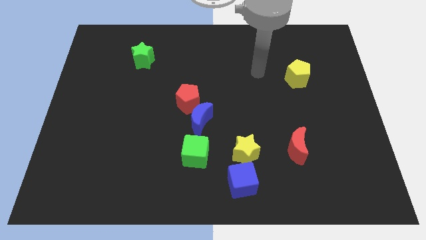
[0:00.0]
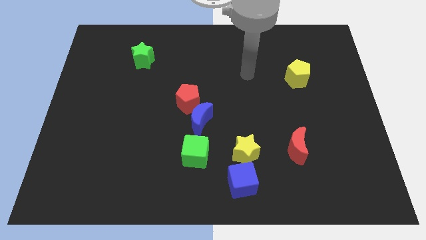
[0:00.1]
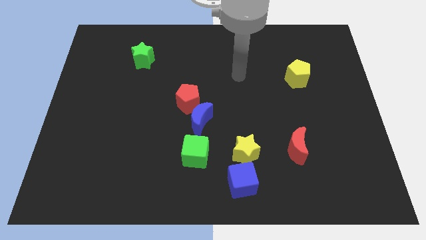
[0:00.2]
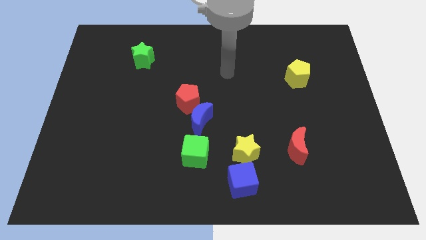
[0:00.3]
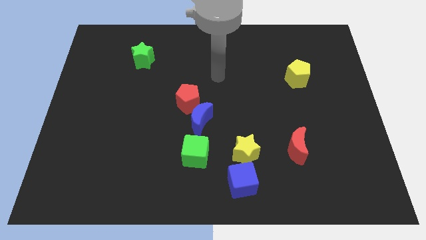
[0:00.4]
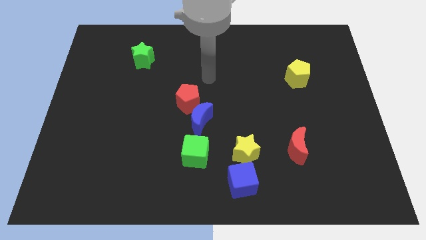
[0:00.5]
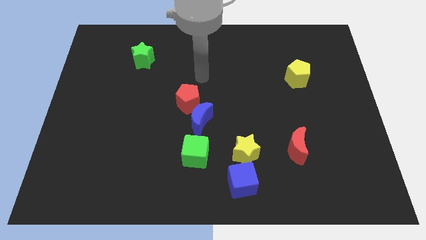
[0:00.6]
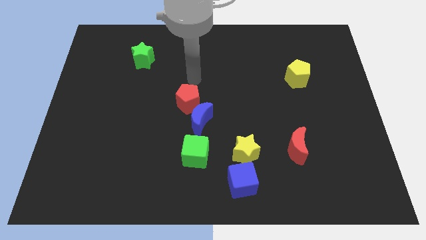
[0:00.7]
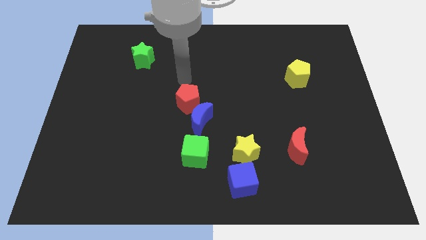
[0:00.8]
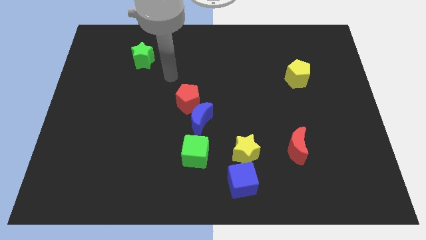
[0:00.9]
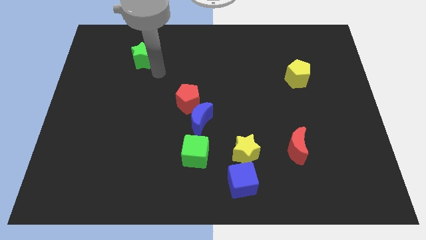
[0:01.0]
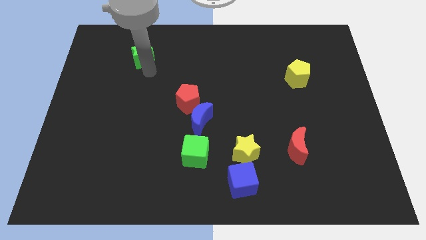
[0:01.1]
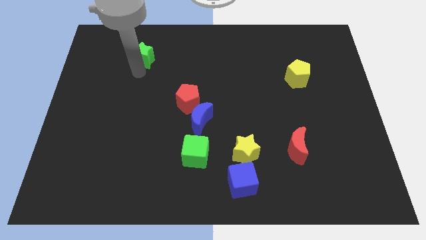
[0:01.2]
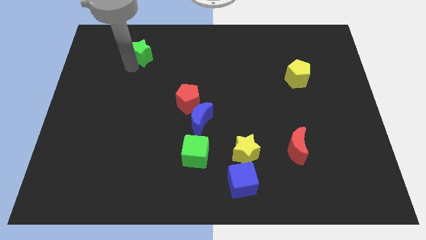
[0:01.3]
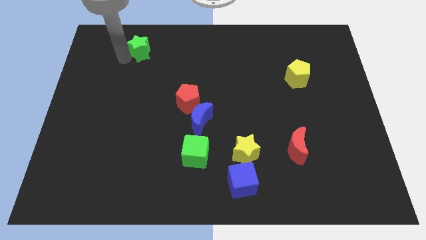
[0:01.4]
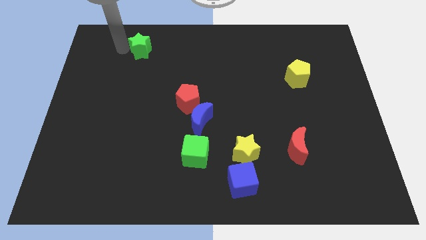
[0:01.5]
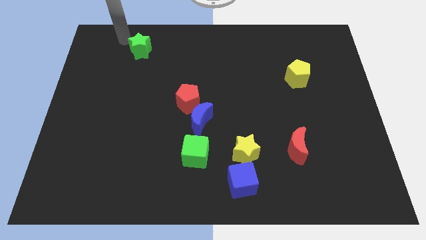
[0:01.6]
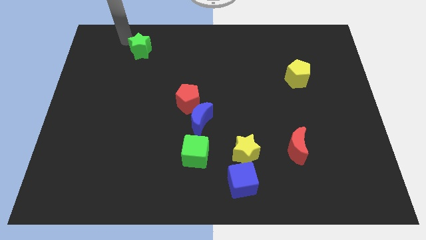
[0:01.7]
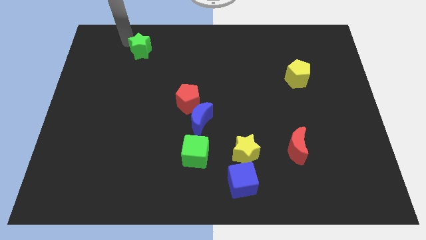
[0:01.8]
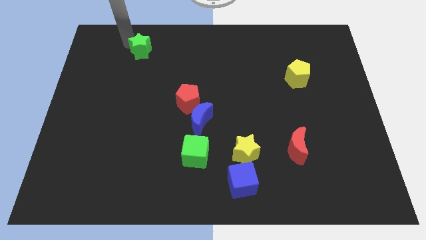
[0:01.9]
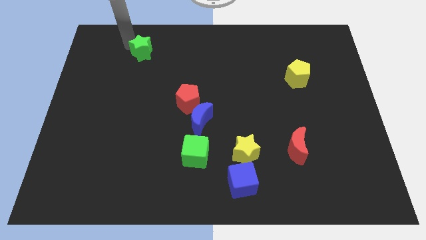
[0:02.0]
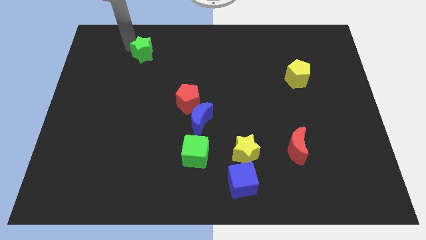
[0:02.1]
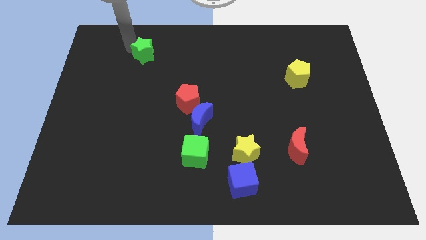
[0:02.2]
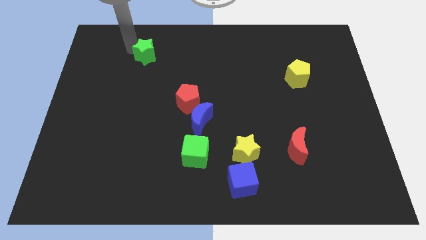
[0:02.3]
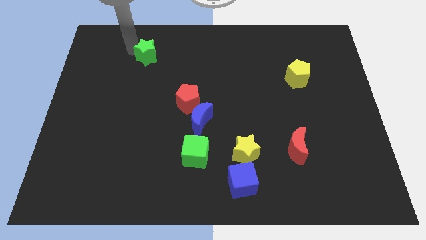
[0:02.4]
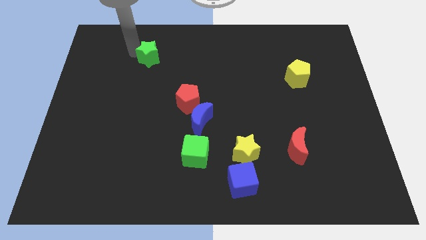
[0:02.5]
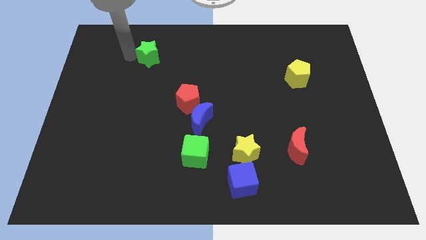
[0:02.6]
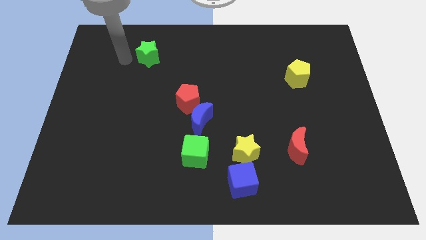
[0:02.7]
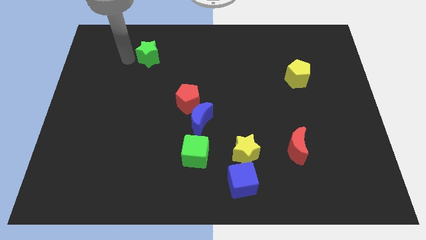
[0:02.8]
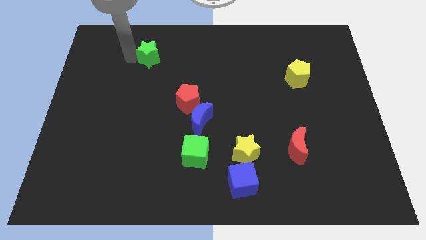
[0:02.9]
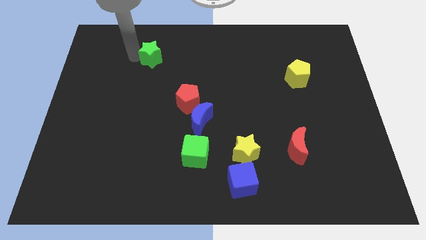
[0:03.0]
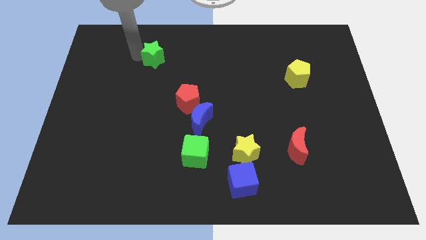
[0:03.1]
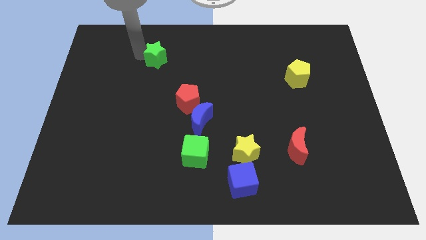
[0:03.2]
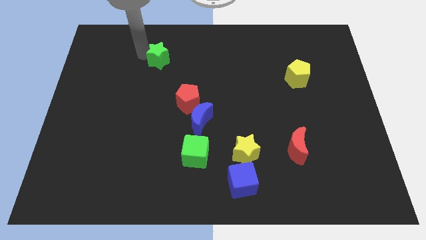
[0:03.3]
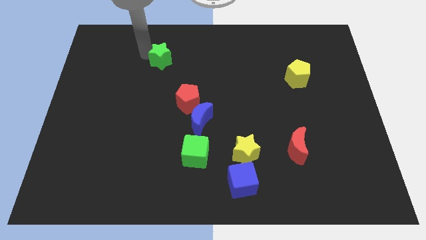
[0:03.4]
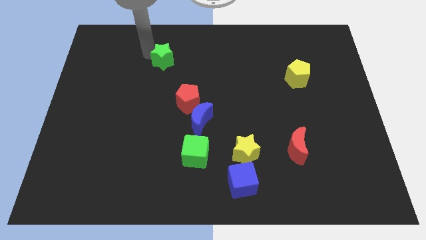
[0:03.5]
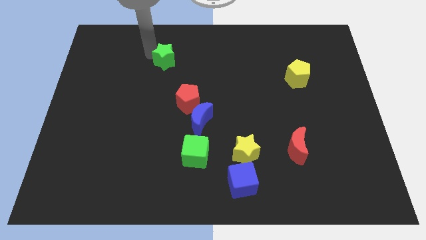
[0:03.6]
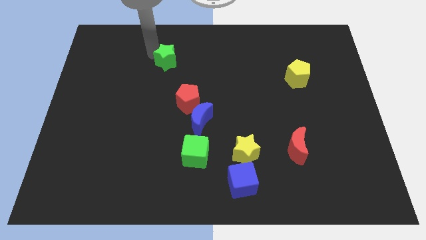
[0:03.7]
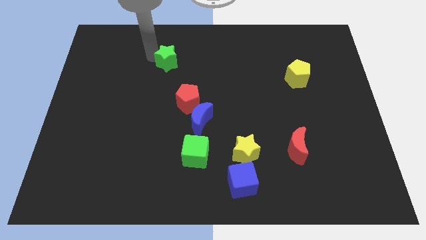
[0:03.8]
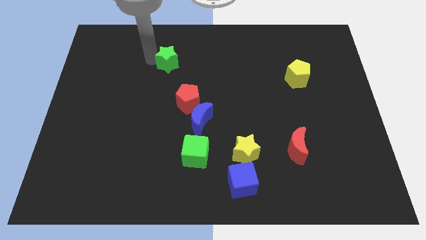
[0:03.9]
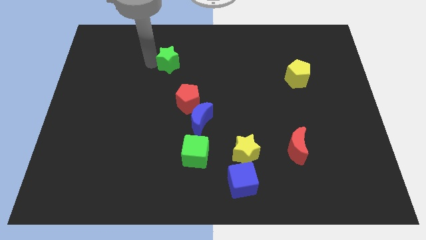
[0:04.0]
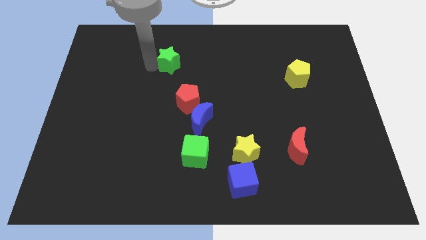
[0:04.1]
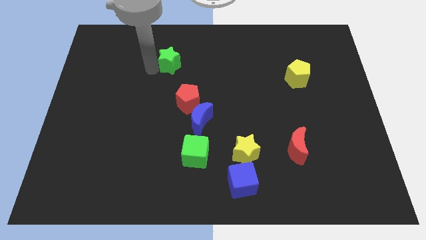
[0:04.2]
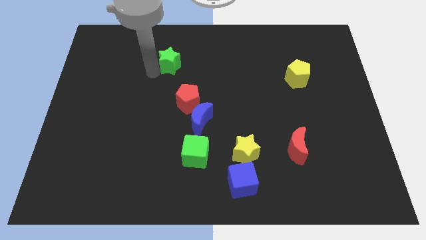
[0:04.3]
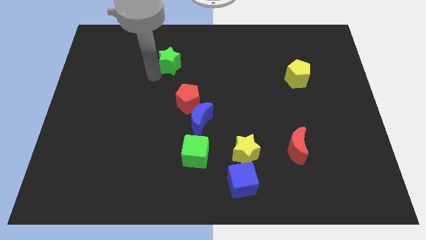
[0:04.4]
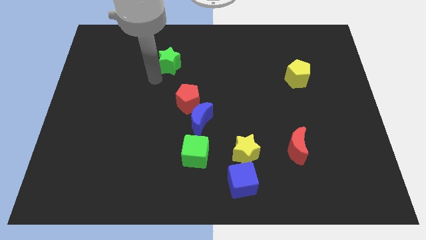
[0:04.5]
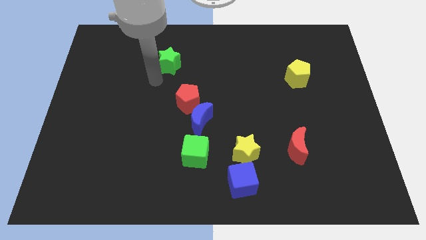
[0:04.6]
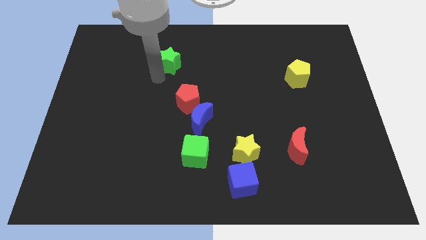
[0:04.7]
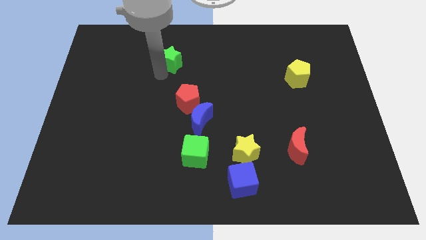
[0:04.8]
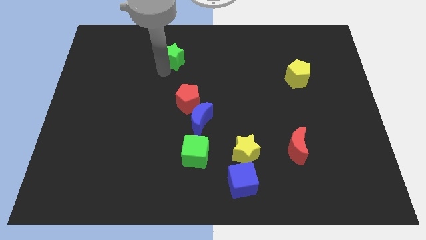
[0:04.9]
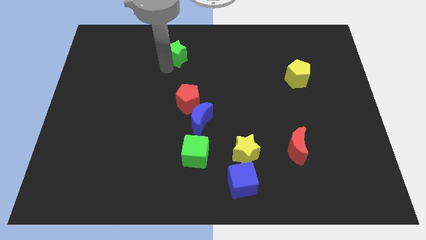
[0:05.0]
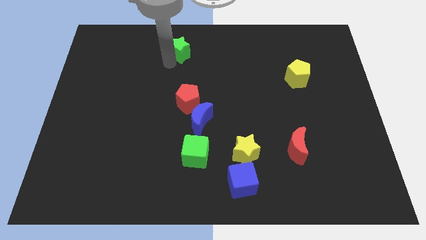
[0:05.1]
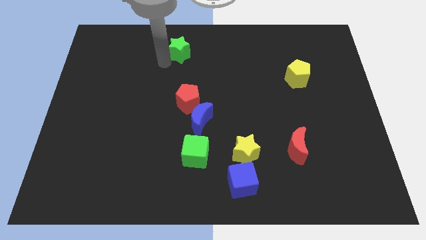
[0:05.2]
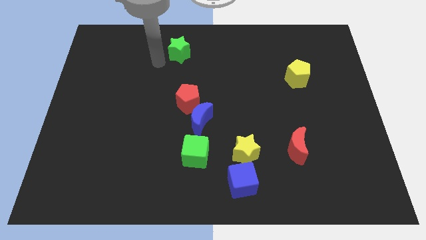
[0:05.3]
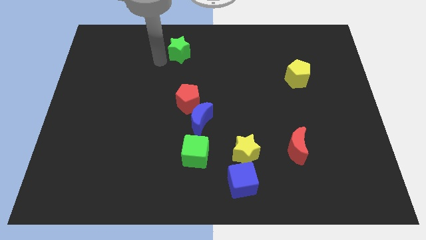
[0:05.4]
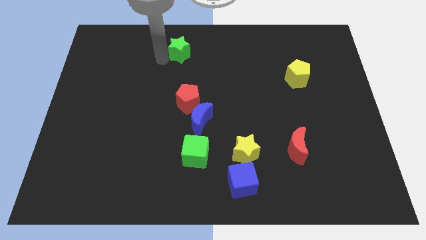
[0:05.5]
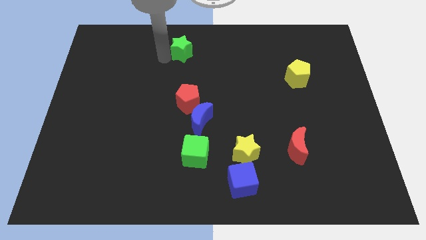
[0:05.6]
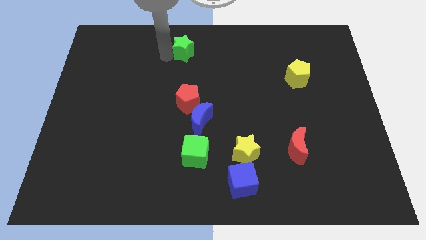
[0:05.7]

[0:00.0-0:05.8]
move the green star to the top side

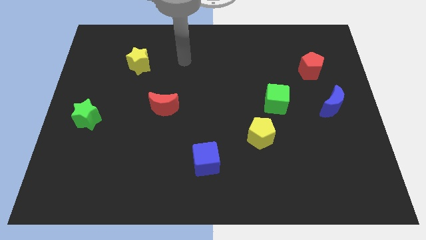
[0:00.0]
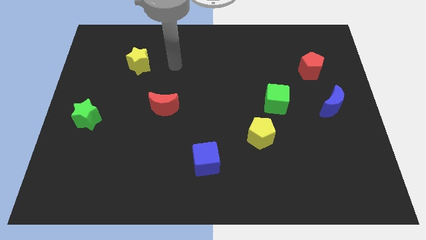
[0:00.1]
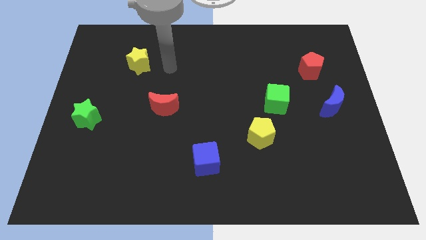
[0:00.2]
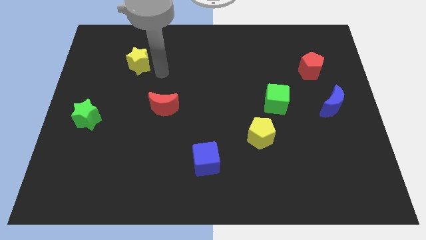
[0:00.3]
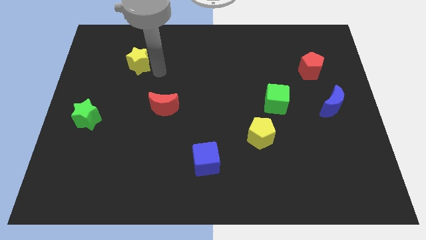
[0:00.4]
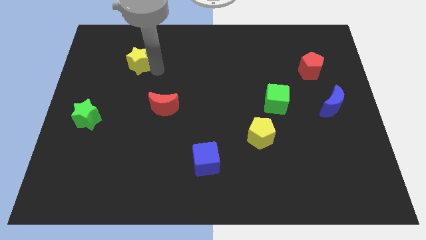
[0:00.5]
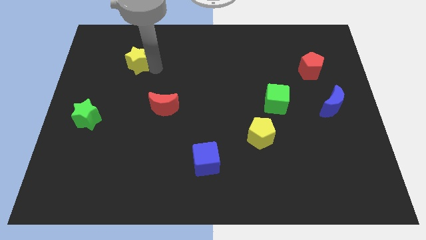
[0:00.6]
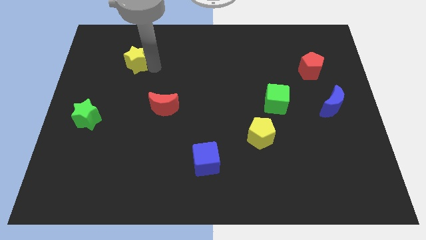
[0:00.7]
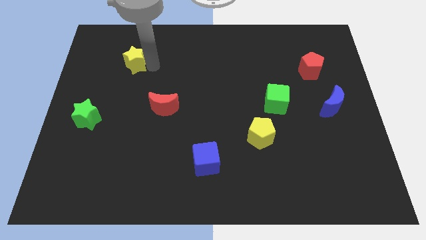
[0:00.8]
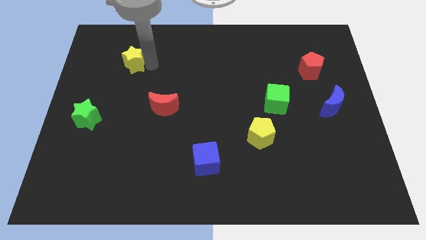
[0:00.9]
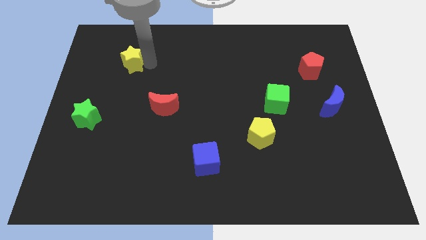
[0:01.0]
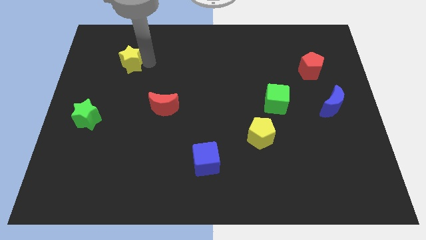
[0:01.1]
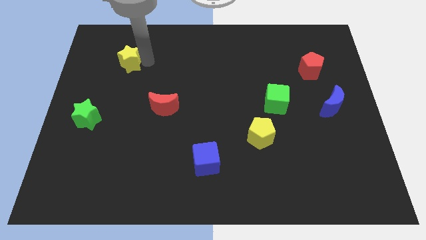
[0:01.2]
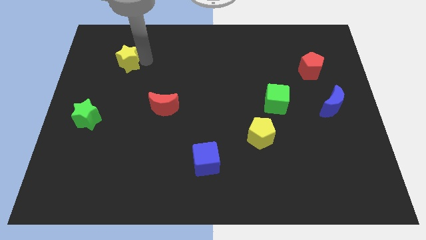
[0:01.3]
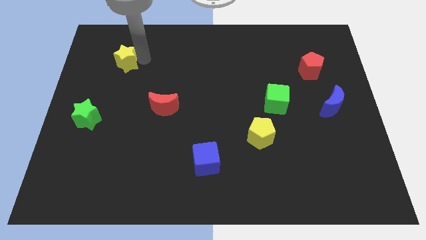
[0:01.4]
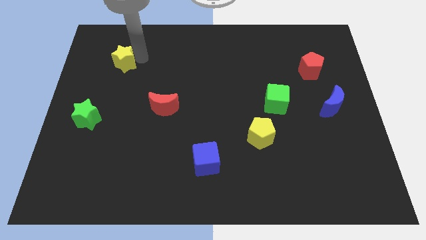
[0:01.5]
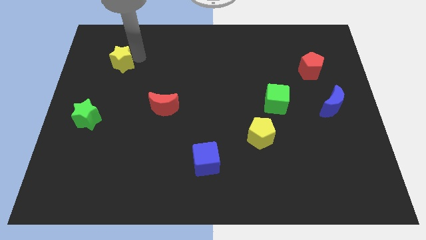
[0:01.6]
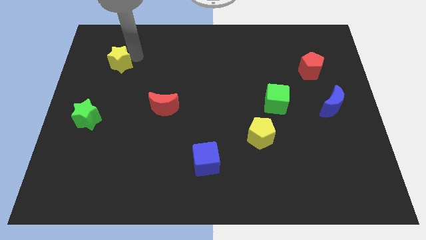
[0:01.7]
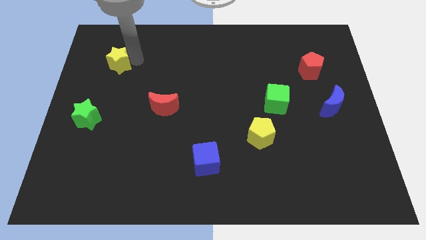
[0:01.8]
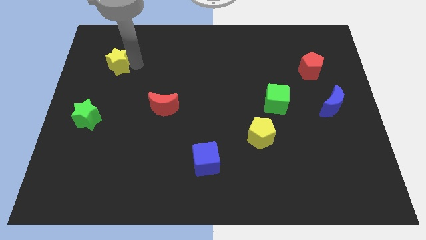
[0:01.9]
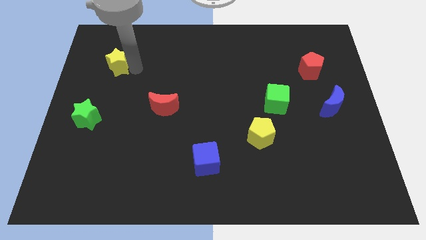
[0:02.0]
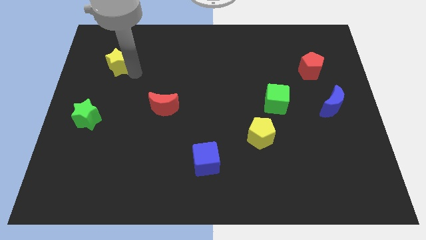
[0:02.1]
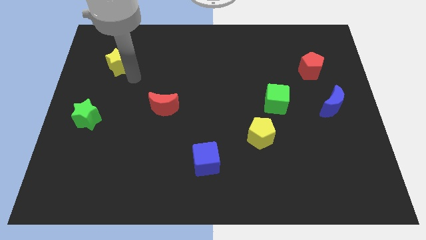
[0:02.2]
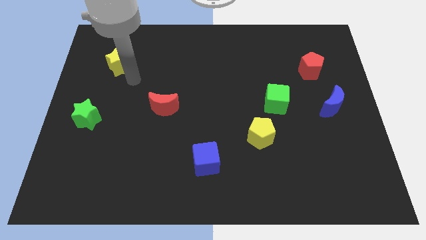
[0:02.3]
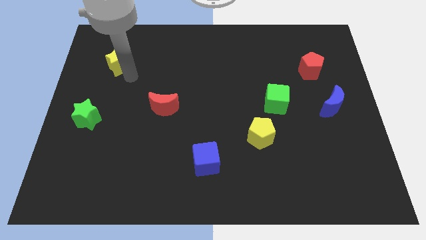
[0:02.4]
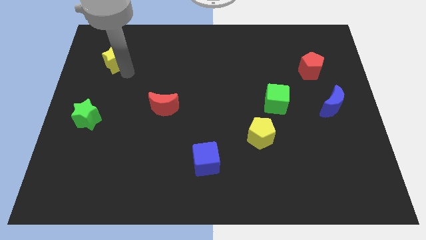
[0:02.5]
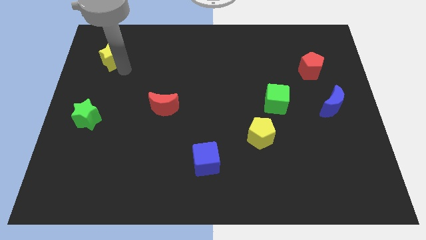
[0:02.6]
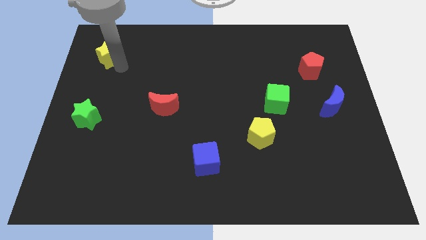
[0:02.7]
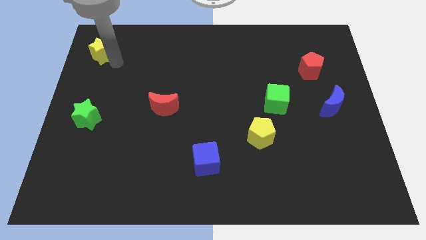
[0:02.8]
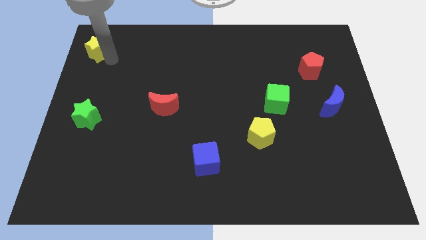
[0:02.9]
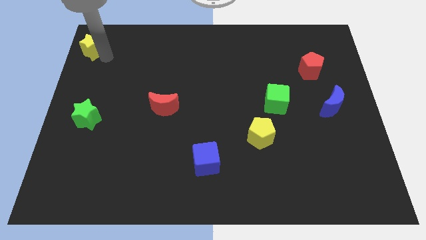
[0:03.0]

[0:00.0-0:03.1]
move the yellow star to the top left corner
